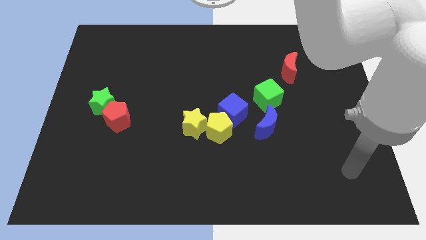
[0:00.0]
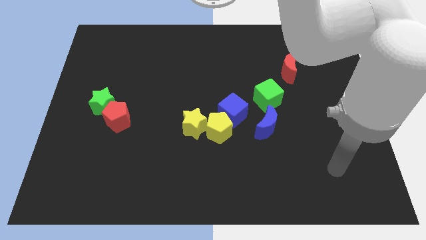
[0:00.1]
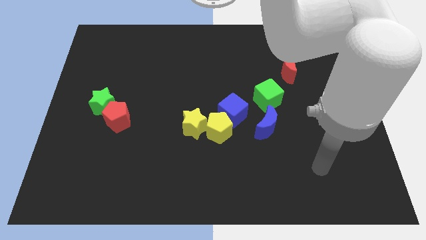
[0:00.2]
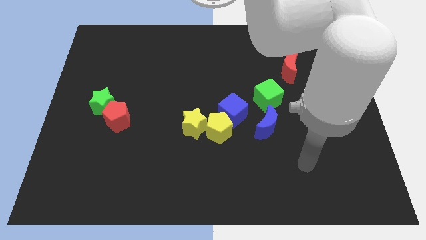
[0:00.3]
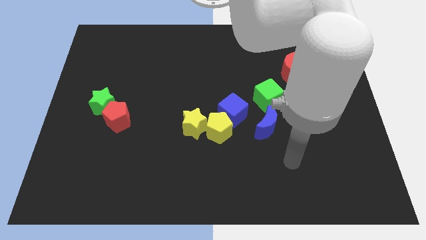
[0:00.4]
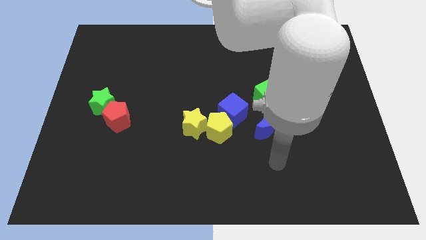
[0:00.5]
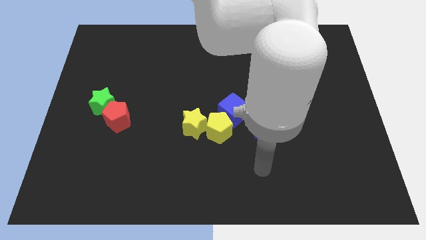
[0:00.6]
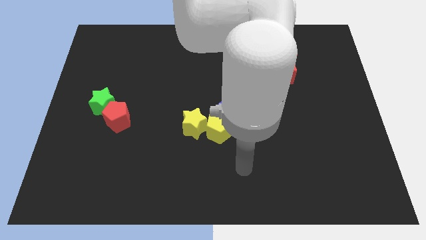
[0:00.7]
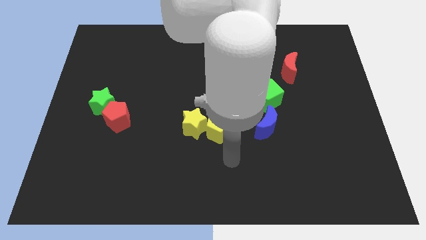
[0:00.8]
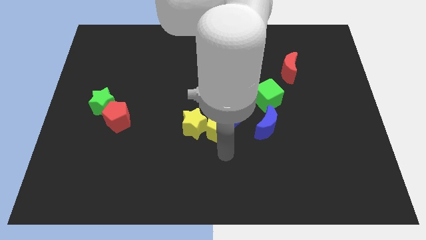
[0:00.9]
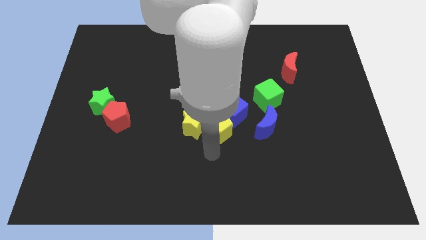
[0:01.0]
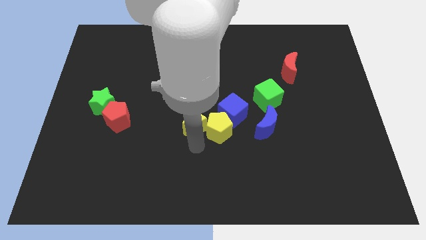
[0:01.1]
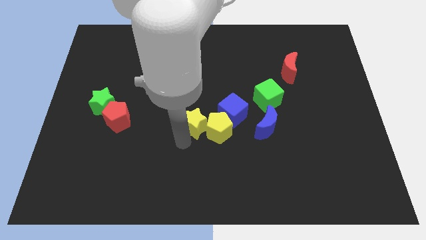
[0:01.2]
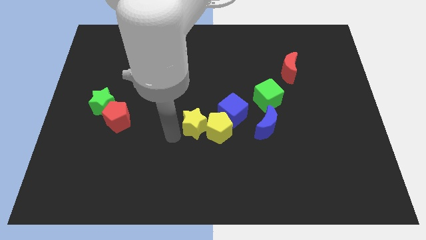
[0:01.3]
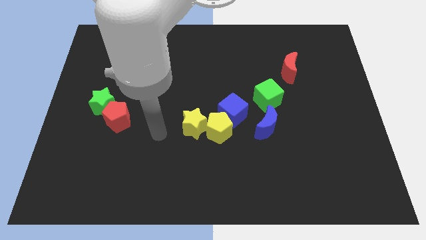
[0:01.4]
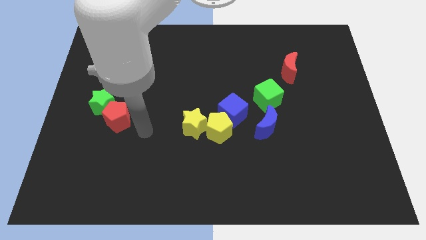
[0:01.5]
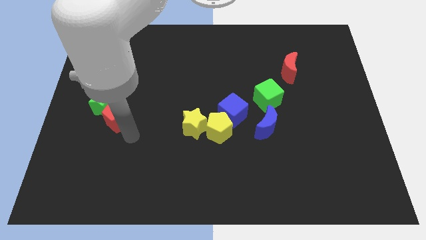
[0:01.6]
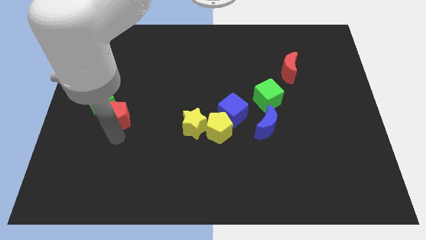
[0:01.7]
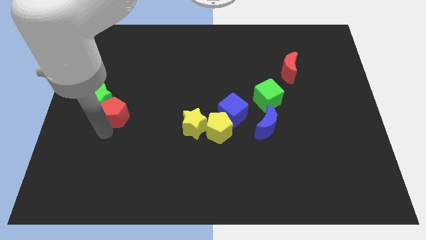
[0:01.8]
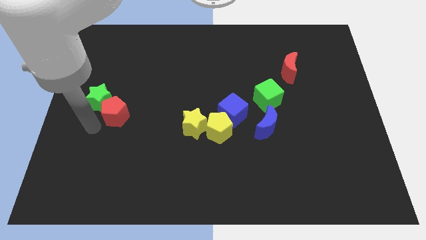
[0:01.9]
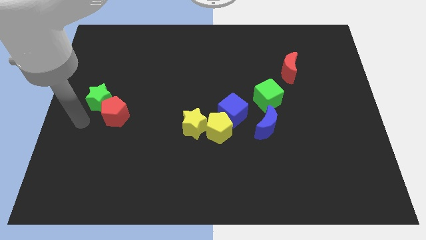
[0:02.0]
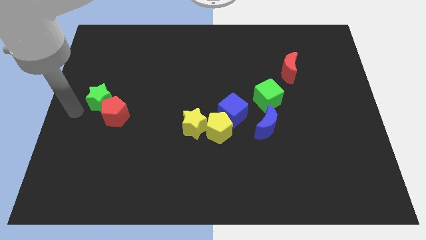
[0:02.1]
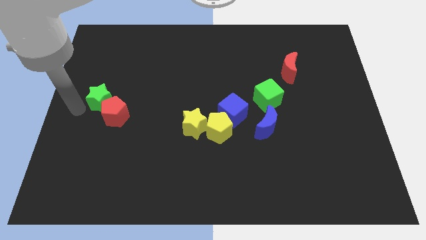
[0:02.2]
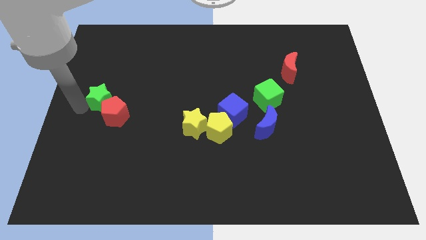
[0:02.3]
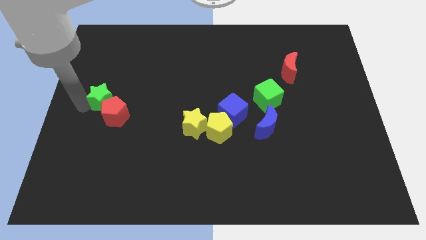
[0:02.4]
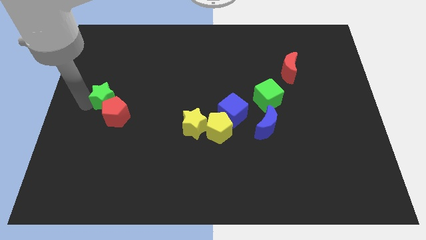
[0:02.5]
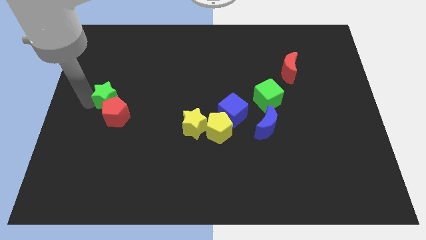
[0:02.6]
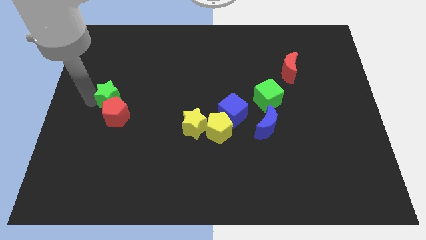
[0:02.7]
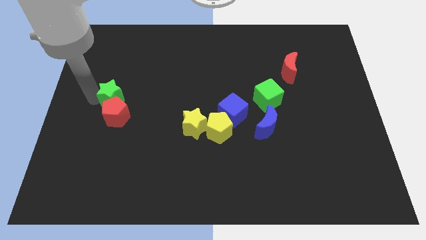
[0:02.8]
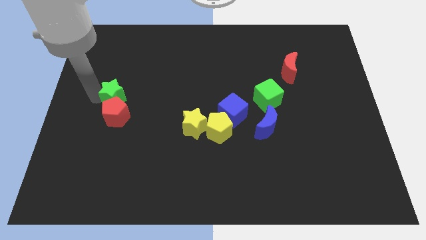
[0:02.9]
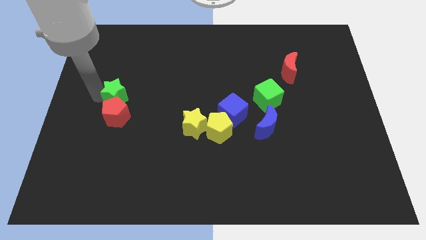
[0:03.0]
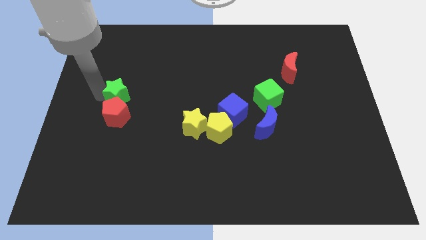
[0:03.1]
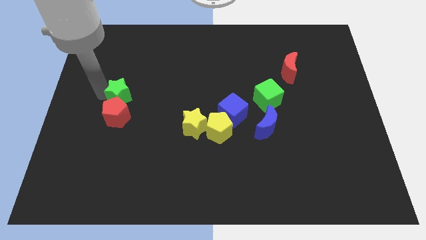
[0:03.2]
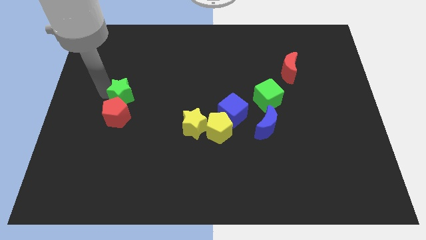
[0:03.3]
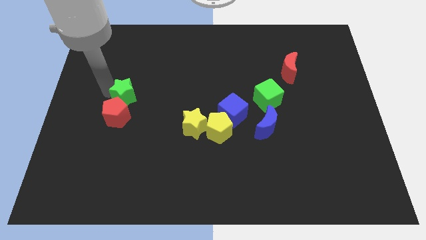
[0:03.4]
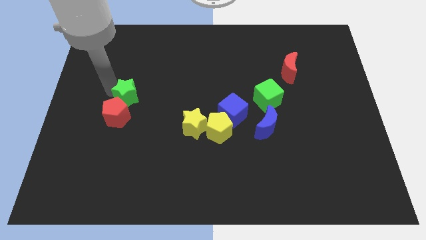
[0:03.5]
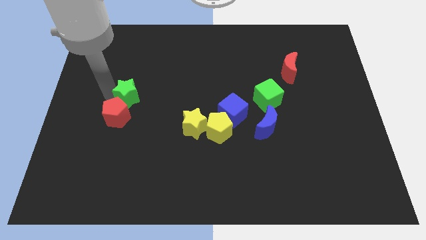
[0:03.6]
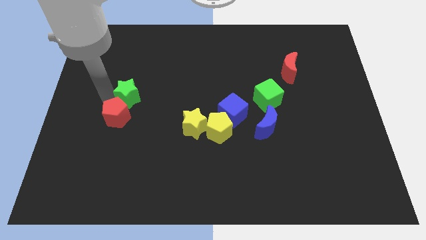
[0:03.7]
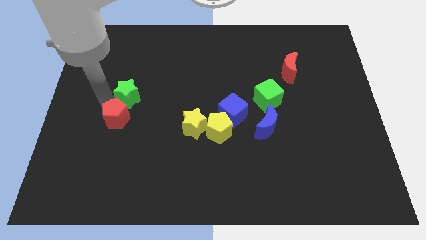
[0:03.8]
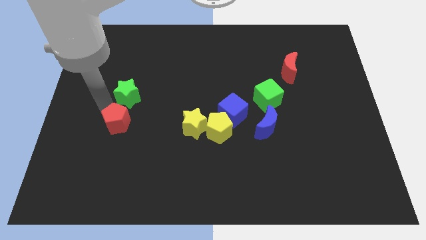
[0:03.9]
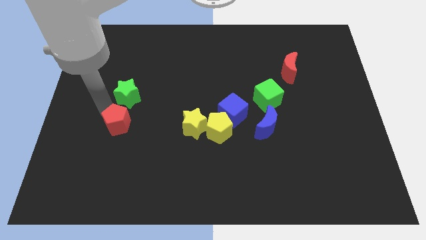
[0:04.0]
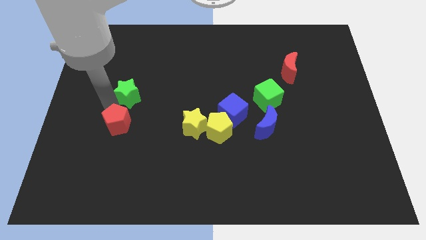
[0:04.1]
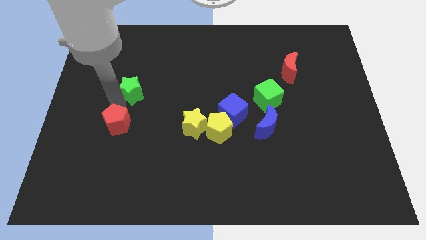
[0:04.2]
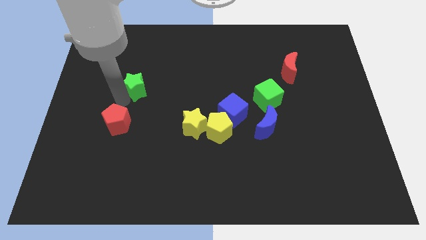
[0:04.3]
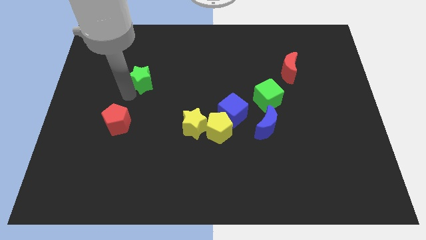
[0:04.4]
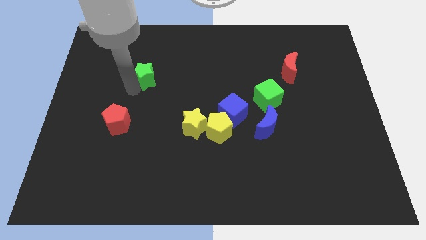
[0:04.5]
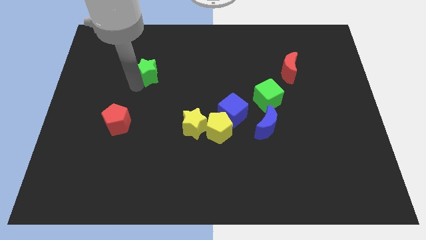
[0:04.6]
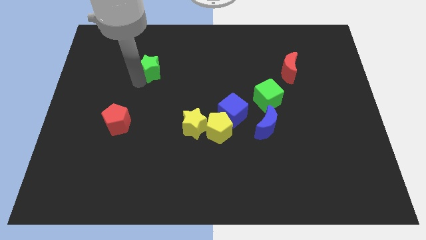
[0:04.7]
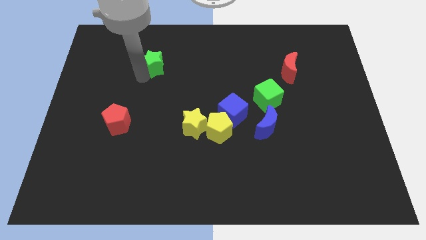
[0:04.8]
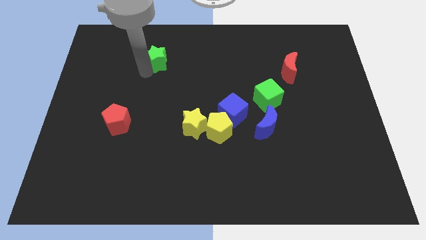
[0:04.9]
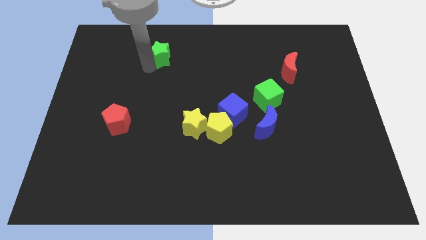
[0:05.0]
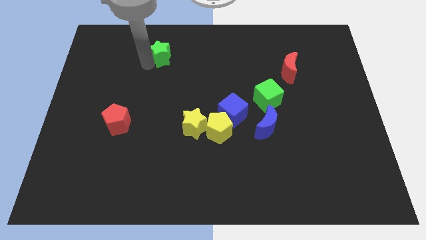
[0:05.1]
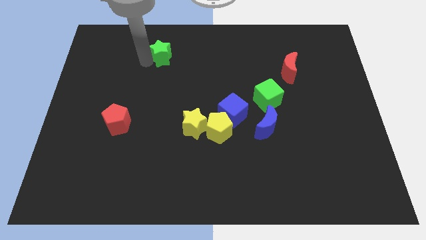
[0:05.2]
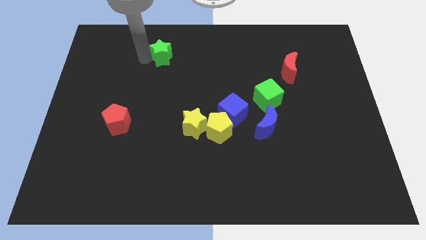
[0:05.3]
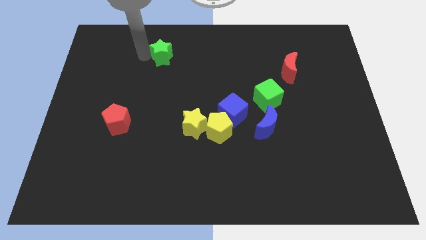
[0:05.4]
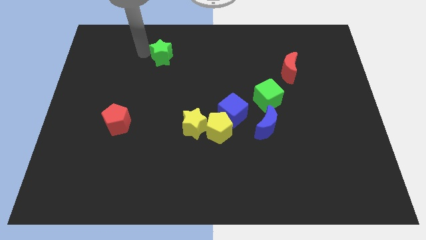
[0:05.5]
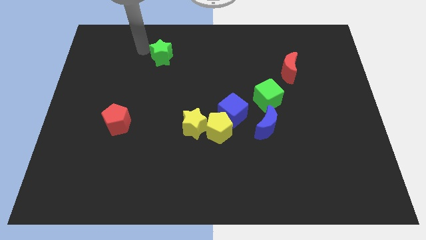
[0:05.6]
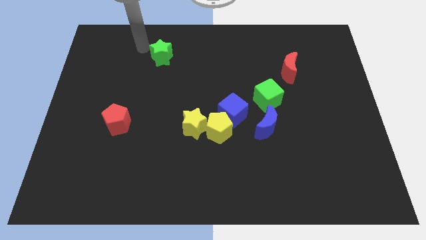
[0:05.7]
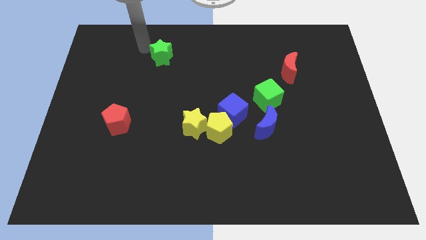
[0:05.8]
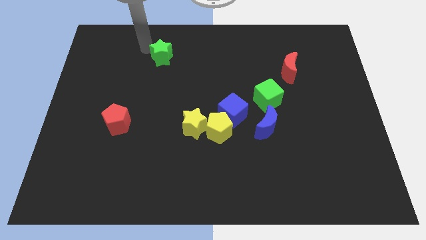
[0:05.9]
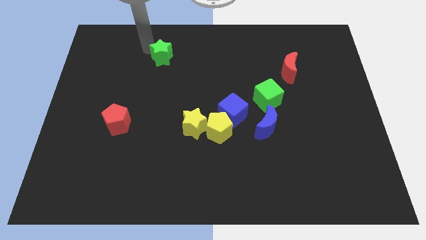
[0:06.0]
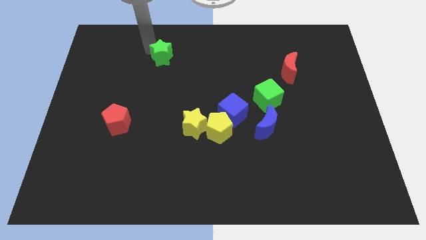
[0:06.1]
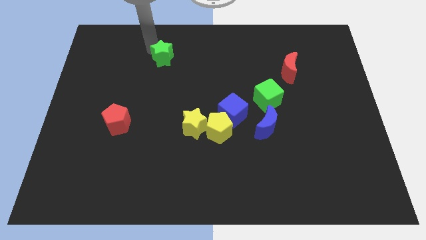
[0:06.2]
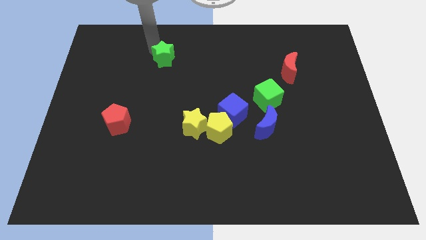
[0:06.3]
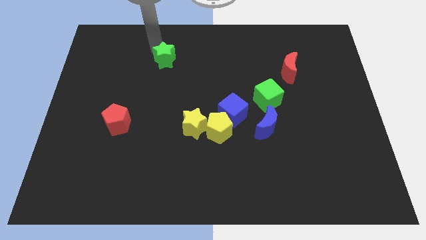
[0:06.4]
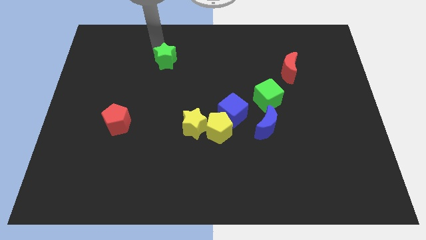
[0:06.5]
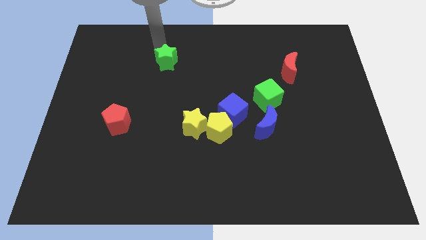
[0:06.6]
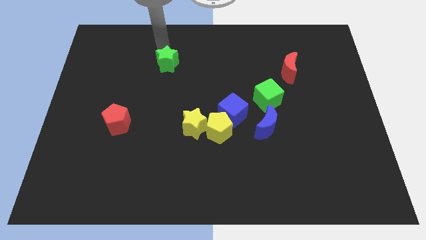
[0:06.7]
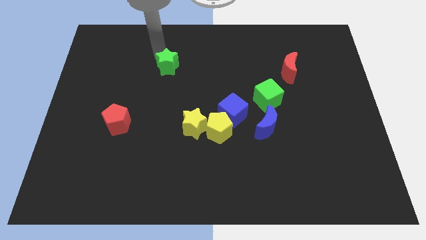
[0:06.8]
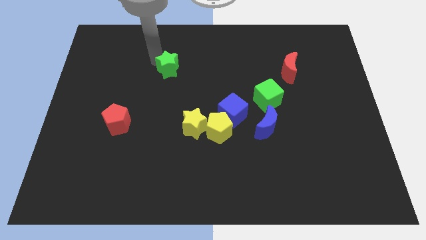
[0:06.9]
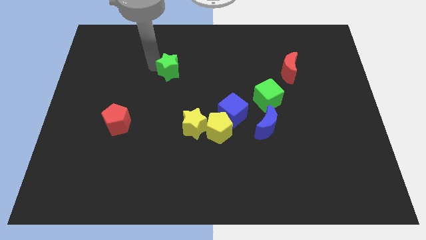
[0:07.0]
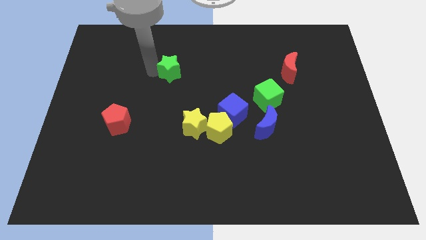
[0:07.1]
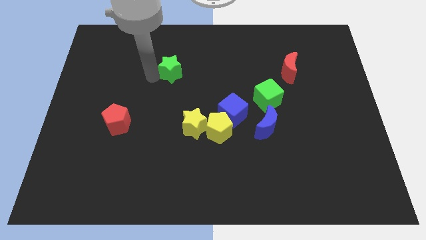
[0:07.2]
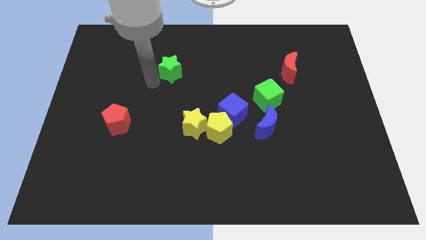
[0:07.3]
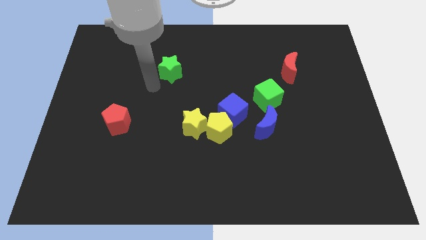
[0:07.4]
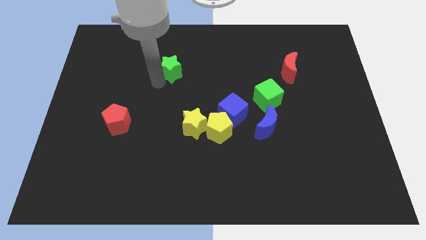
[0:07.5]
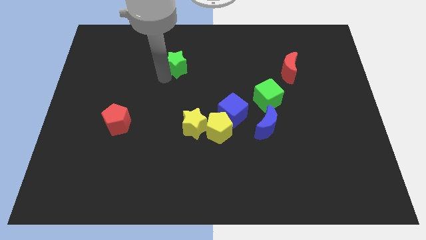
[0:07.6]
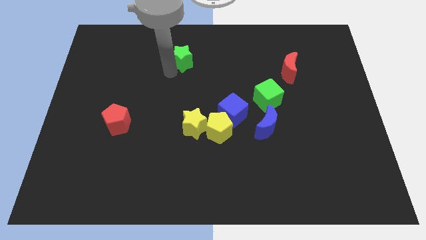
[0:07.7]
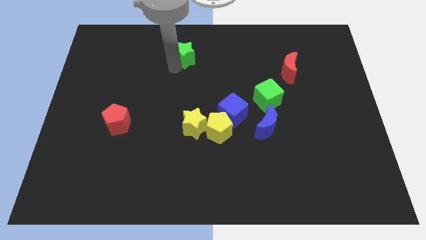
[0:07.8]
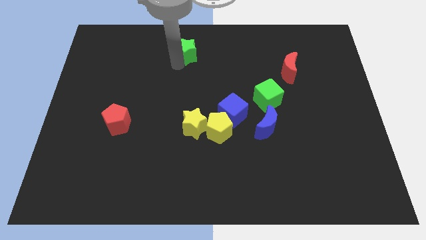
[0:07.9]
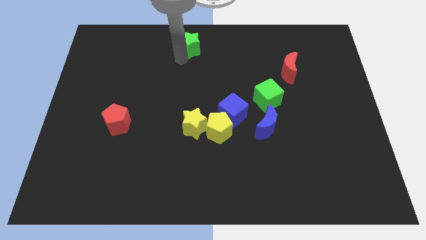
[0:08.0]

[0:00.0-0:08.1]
put the green star to the towards your base

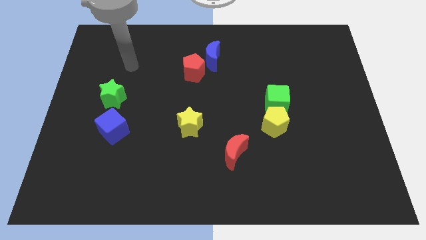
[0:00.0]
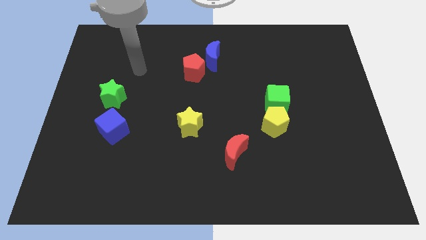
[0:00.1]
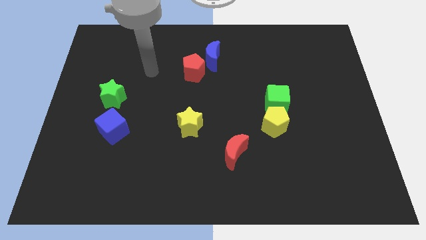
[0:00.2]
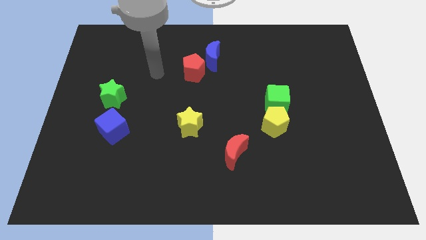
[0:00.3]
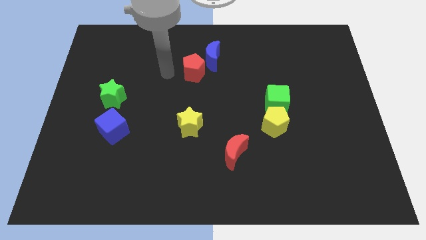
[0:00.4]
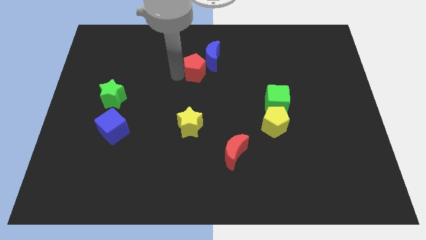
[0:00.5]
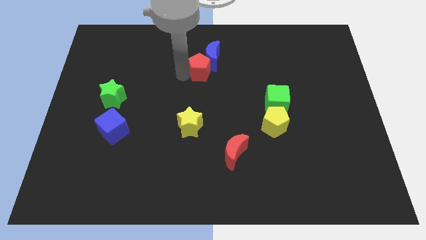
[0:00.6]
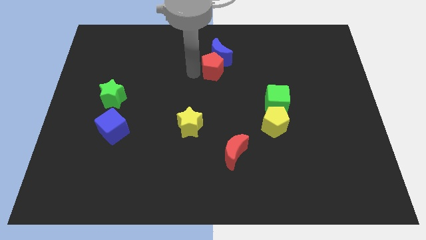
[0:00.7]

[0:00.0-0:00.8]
push the blue moon to the top side
